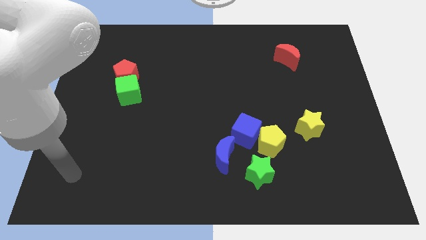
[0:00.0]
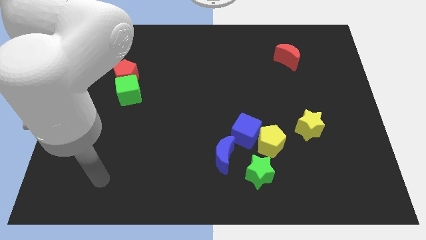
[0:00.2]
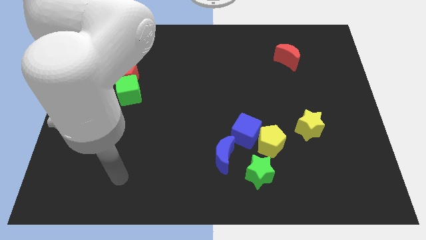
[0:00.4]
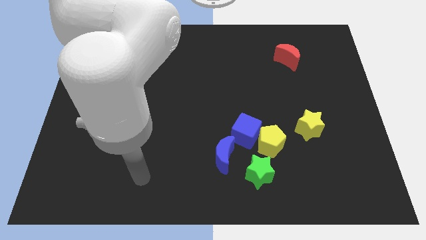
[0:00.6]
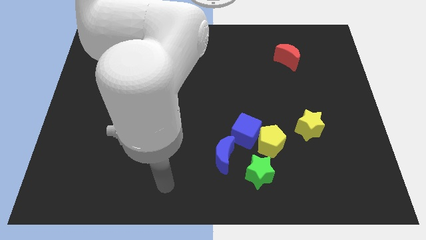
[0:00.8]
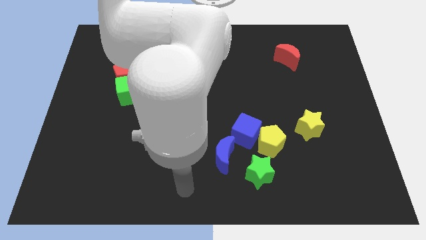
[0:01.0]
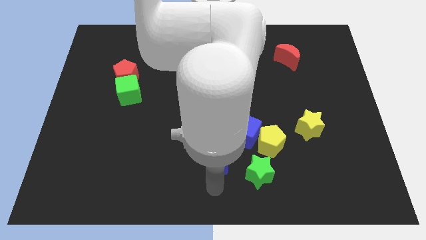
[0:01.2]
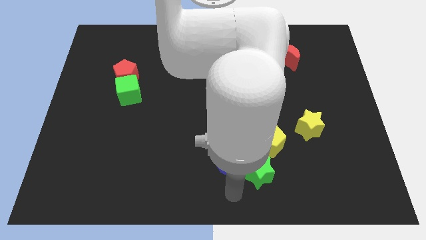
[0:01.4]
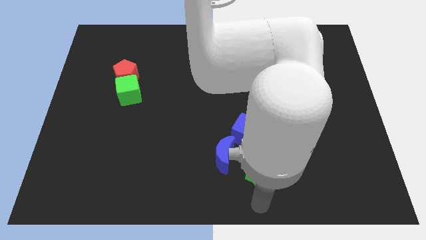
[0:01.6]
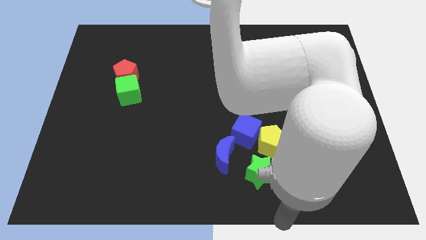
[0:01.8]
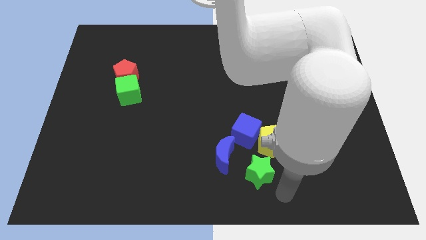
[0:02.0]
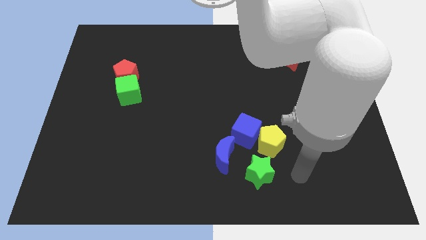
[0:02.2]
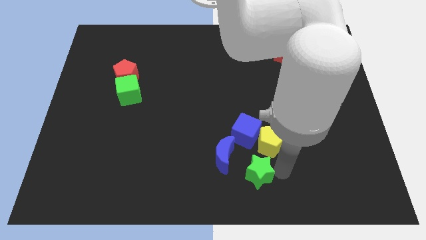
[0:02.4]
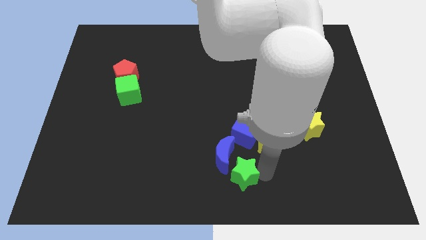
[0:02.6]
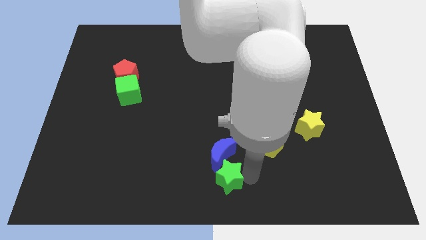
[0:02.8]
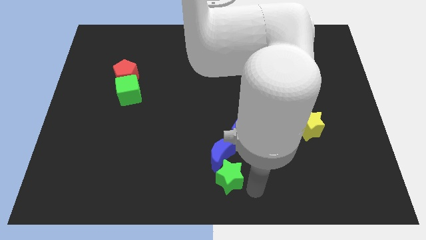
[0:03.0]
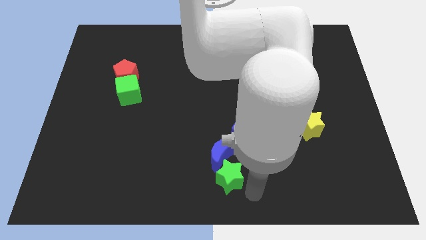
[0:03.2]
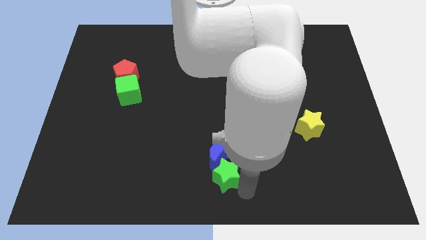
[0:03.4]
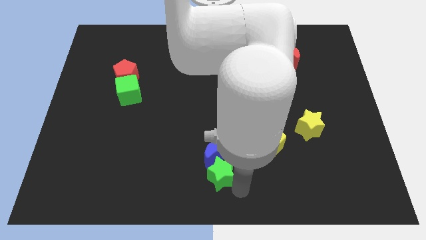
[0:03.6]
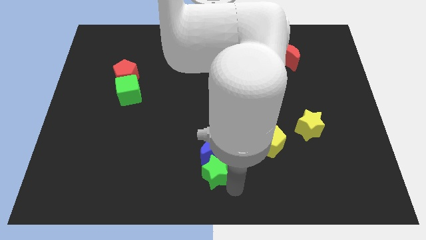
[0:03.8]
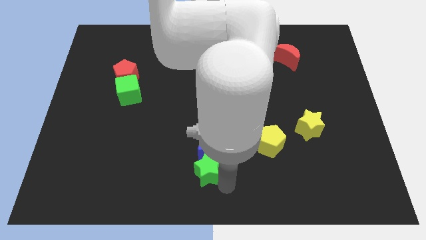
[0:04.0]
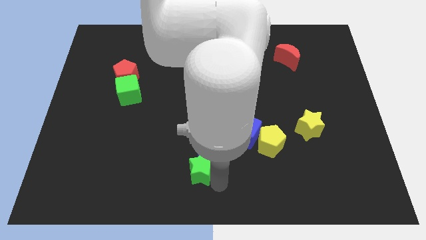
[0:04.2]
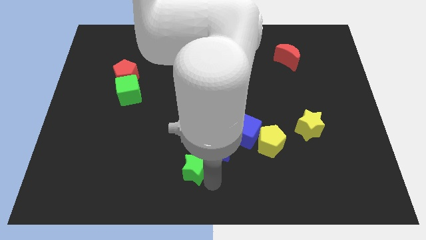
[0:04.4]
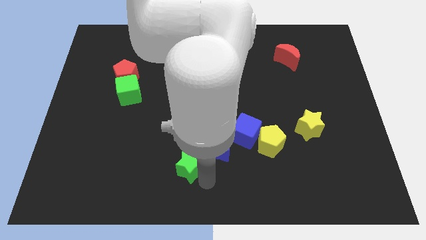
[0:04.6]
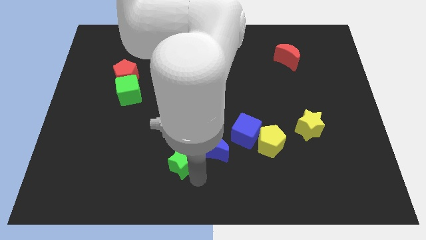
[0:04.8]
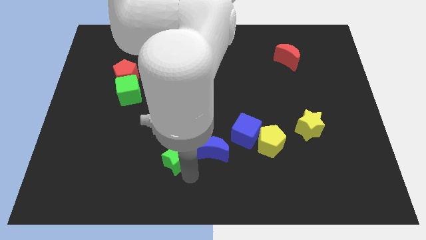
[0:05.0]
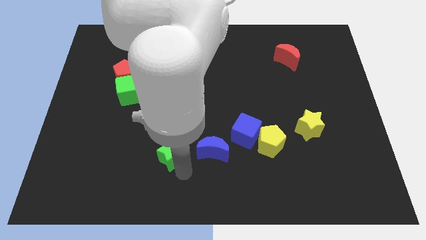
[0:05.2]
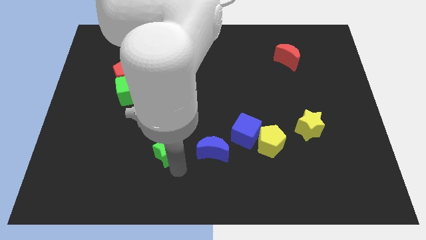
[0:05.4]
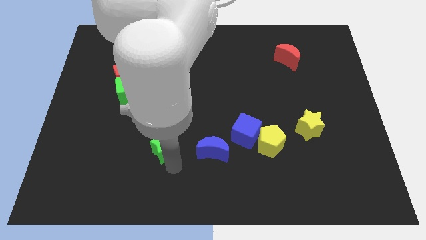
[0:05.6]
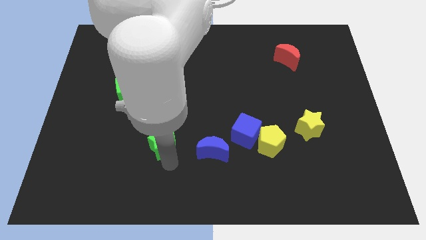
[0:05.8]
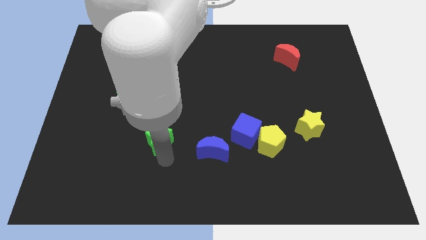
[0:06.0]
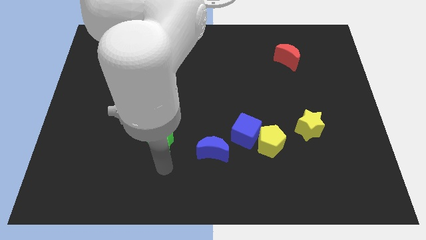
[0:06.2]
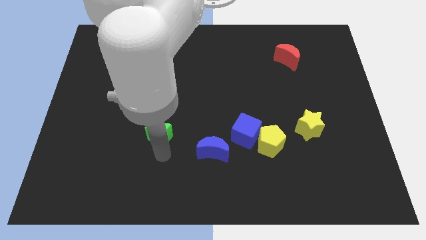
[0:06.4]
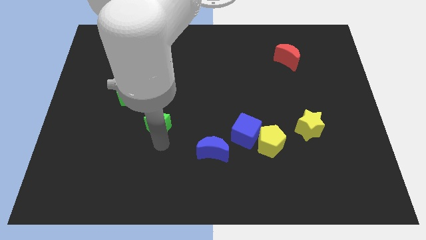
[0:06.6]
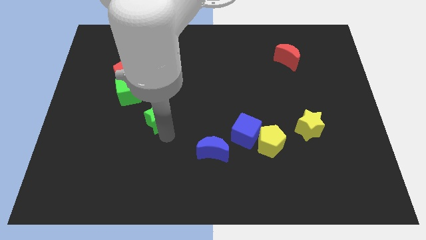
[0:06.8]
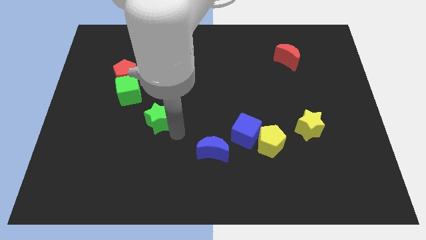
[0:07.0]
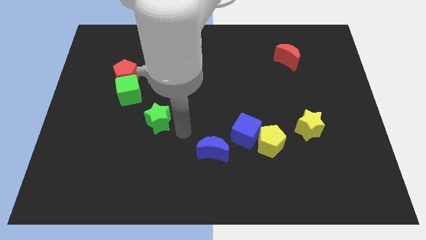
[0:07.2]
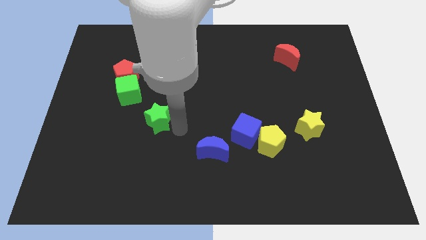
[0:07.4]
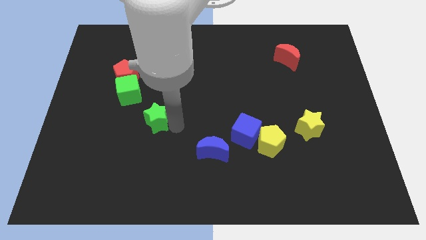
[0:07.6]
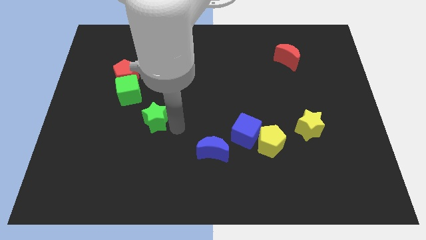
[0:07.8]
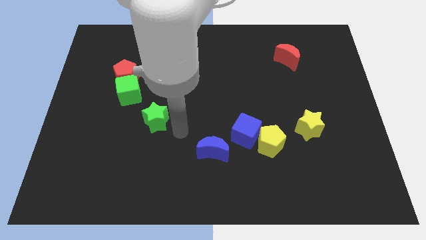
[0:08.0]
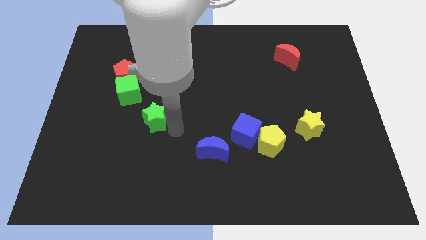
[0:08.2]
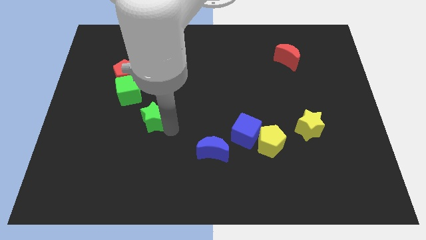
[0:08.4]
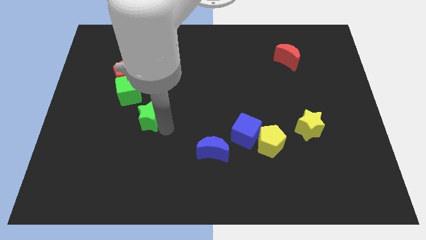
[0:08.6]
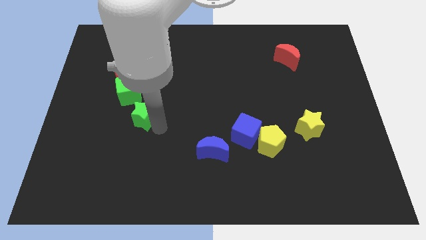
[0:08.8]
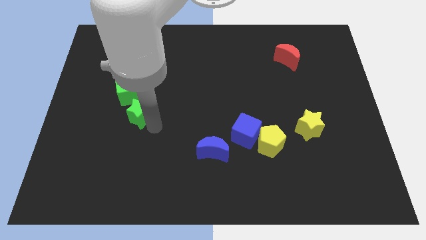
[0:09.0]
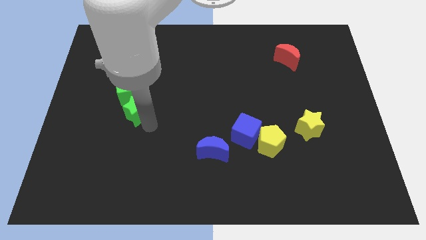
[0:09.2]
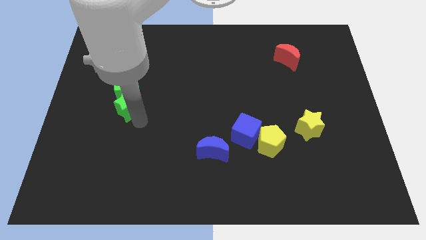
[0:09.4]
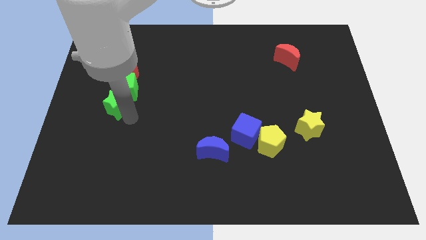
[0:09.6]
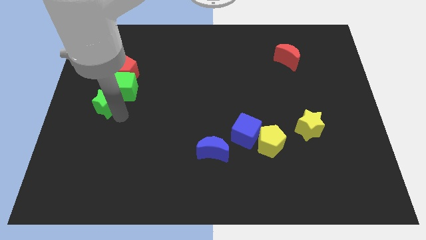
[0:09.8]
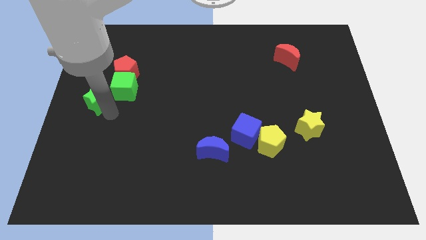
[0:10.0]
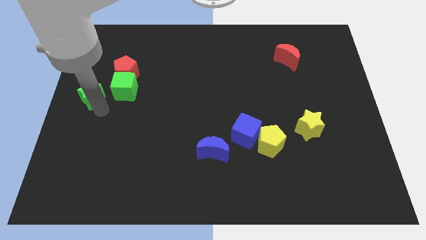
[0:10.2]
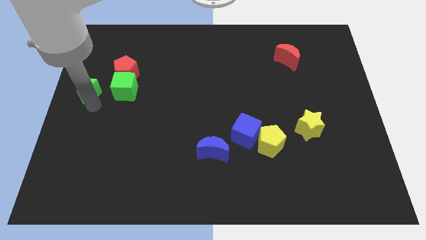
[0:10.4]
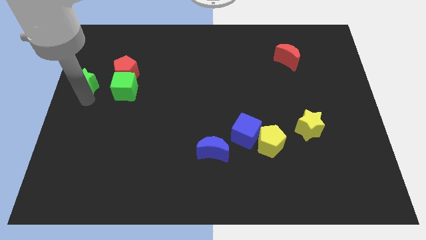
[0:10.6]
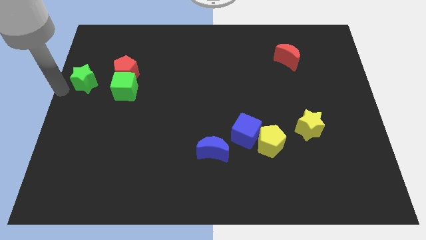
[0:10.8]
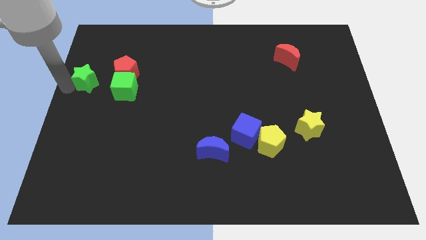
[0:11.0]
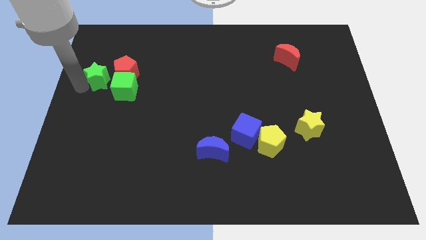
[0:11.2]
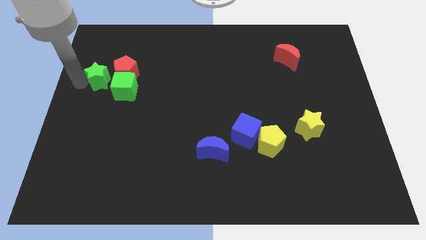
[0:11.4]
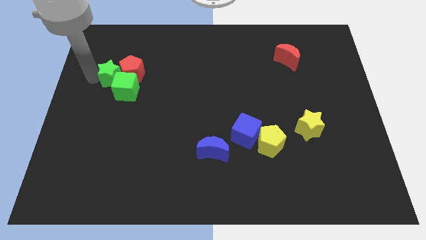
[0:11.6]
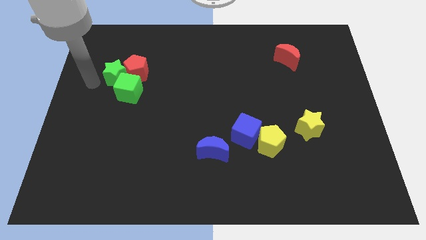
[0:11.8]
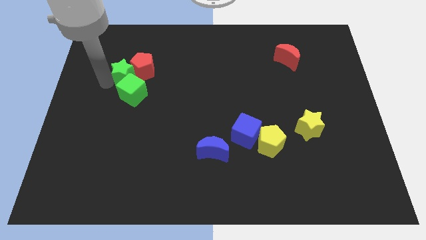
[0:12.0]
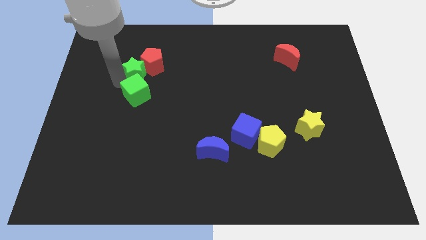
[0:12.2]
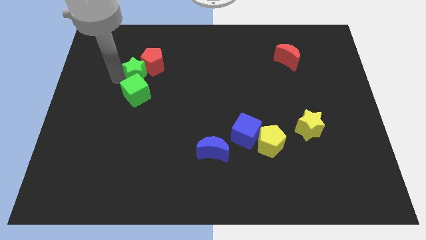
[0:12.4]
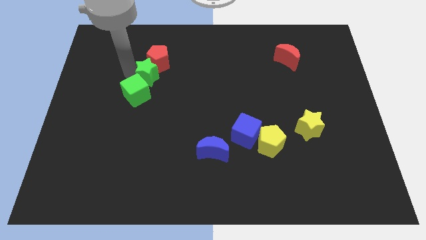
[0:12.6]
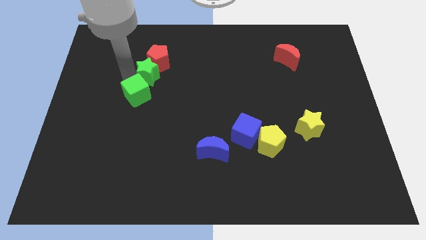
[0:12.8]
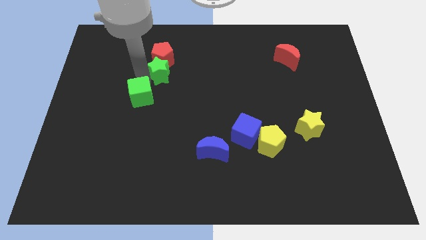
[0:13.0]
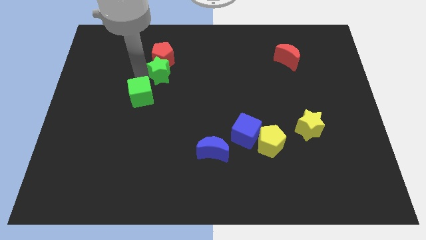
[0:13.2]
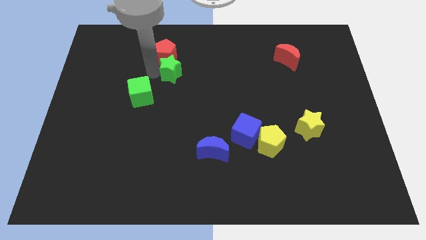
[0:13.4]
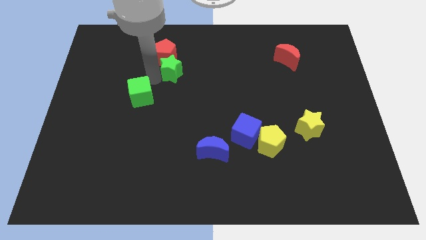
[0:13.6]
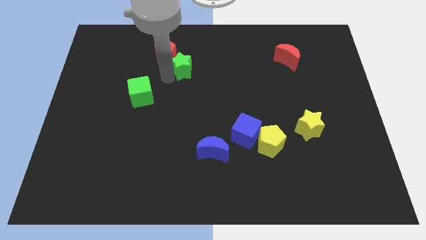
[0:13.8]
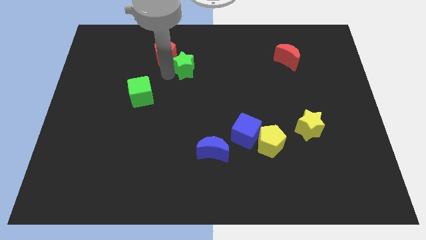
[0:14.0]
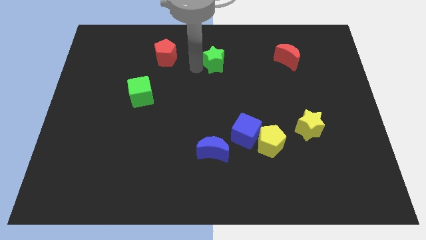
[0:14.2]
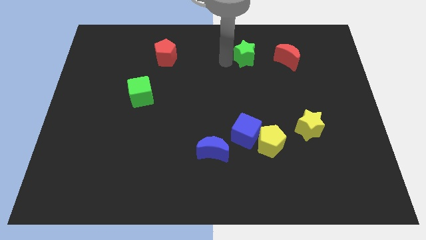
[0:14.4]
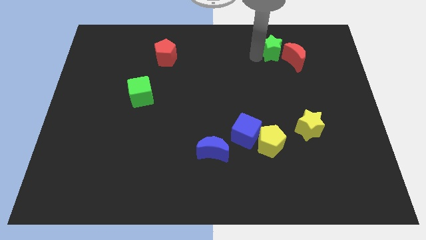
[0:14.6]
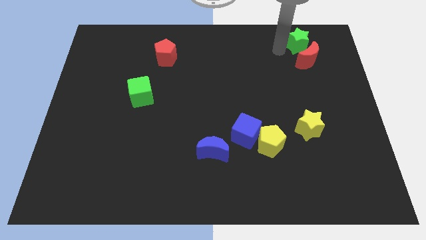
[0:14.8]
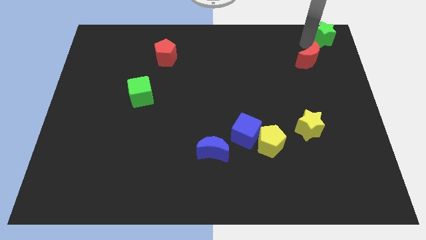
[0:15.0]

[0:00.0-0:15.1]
put the green star to the top right of the board
